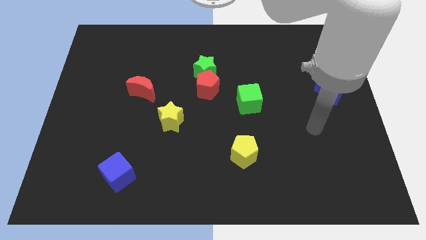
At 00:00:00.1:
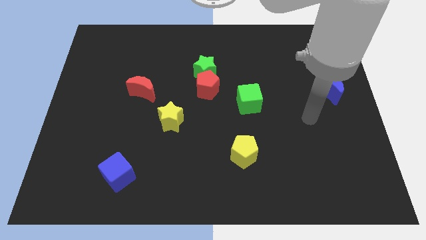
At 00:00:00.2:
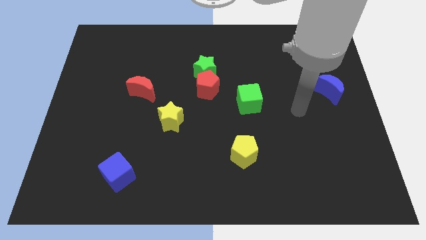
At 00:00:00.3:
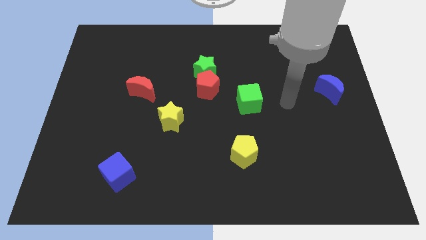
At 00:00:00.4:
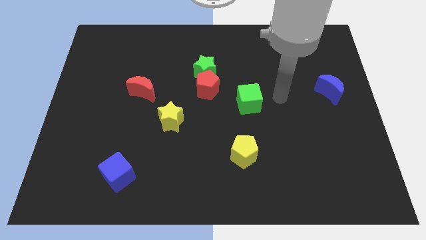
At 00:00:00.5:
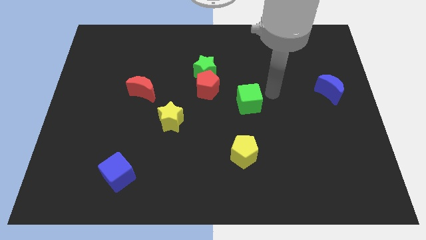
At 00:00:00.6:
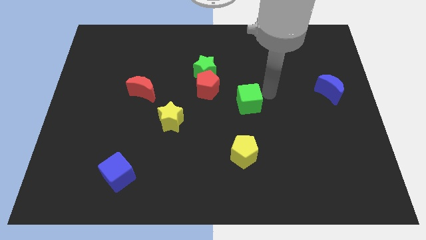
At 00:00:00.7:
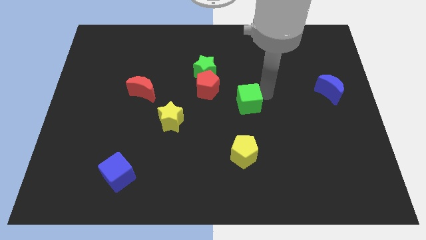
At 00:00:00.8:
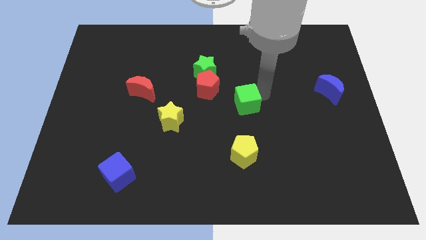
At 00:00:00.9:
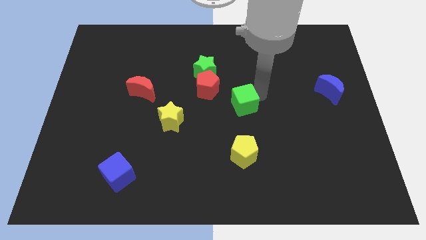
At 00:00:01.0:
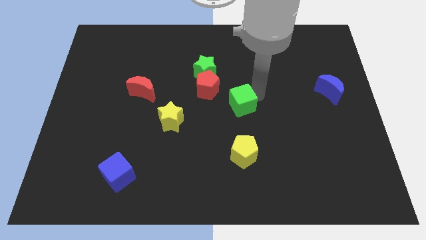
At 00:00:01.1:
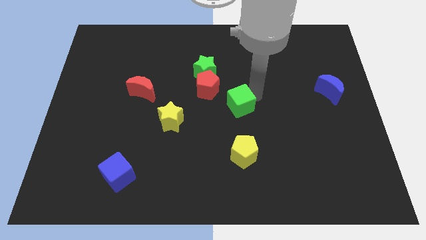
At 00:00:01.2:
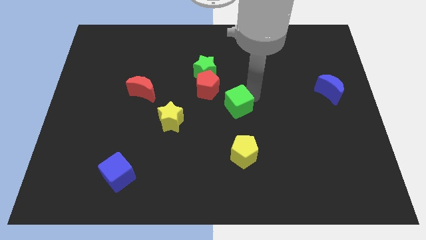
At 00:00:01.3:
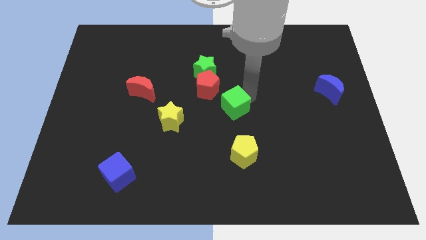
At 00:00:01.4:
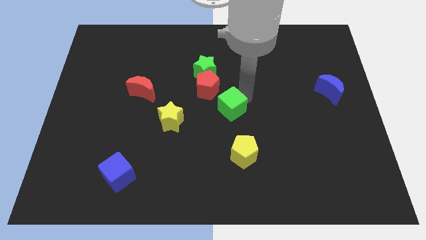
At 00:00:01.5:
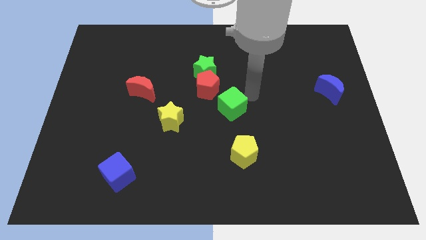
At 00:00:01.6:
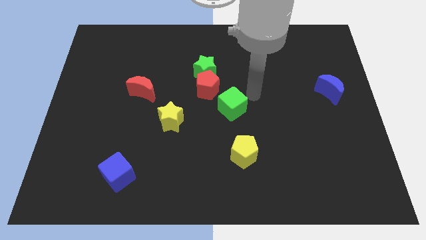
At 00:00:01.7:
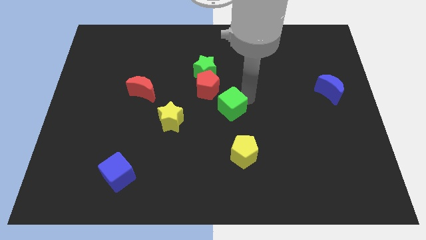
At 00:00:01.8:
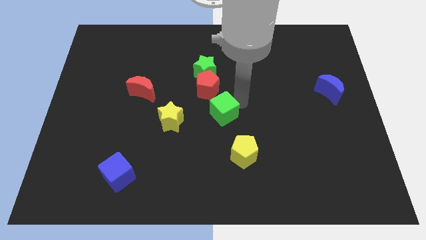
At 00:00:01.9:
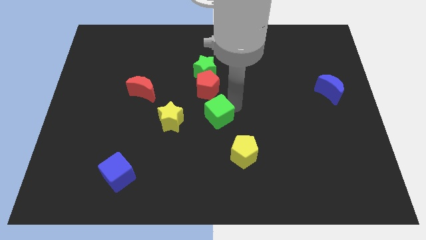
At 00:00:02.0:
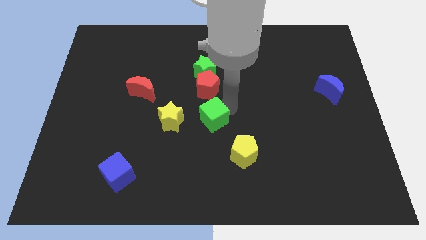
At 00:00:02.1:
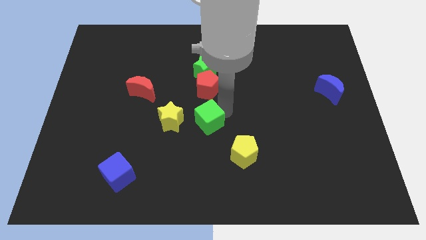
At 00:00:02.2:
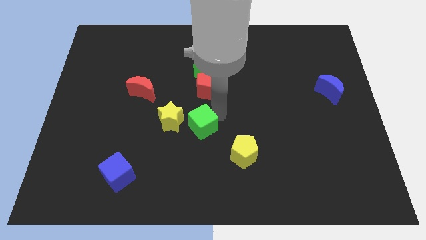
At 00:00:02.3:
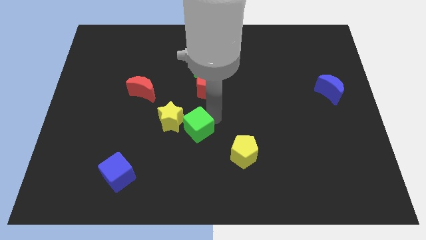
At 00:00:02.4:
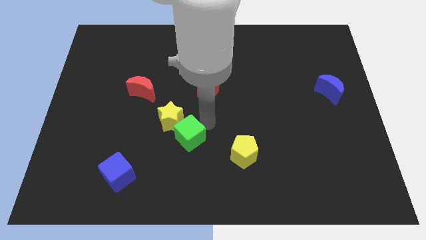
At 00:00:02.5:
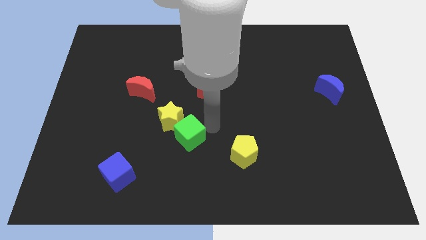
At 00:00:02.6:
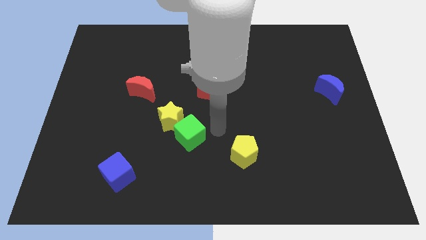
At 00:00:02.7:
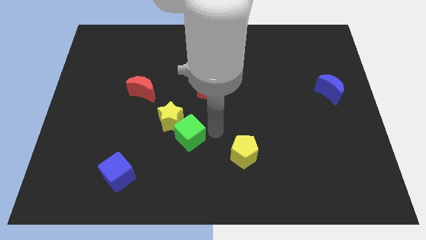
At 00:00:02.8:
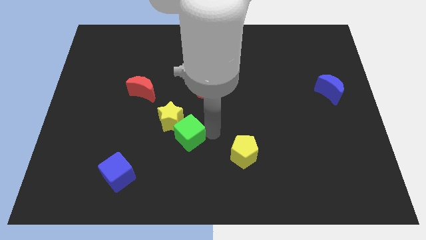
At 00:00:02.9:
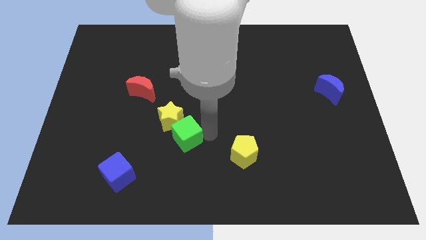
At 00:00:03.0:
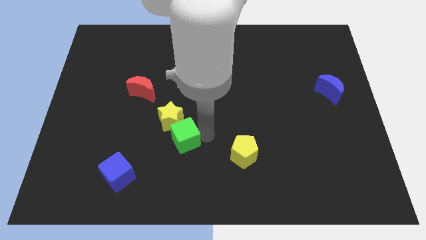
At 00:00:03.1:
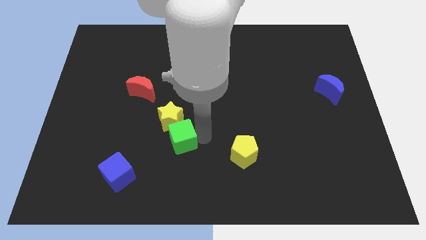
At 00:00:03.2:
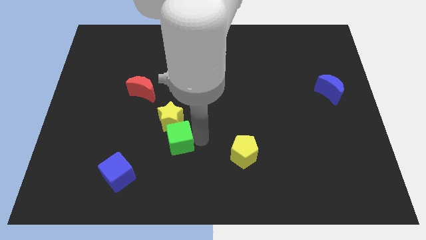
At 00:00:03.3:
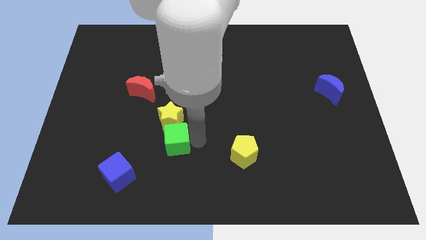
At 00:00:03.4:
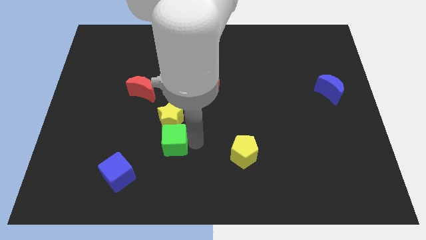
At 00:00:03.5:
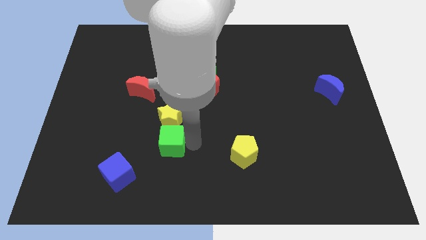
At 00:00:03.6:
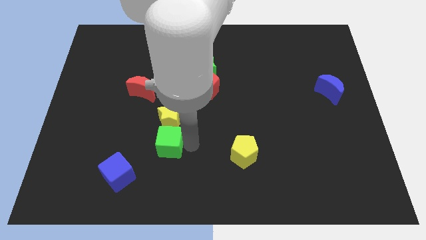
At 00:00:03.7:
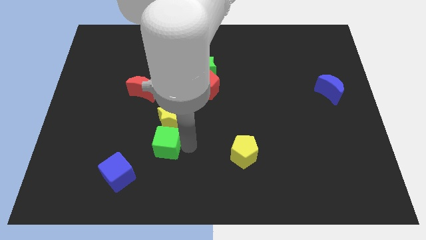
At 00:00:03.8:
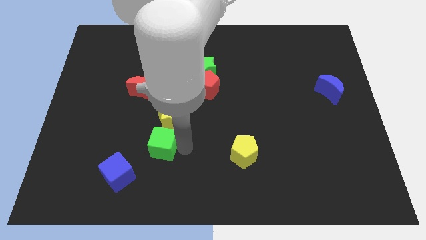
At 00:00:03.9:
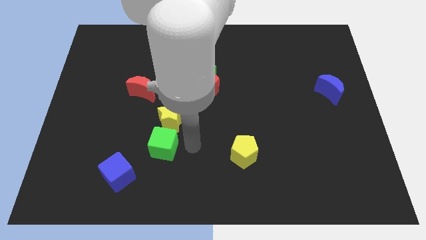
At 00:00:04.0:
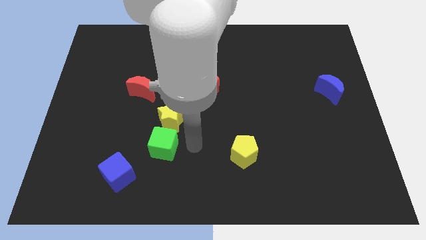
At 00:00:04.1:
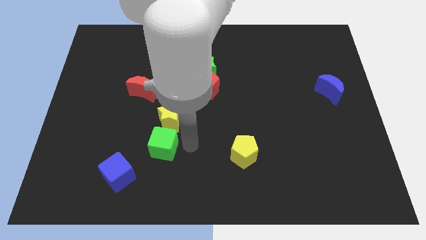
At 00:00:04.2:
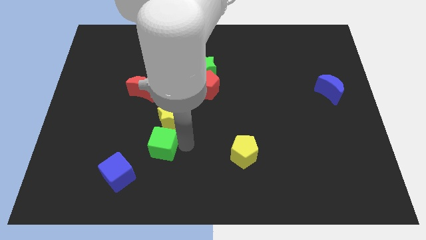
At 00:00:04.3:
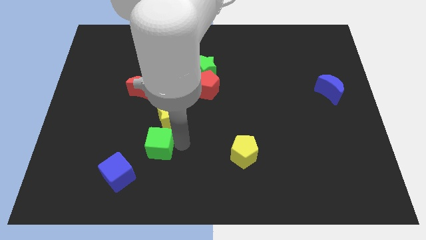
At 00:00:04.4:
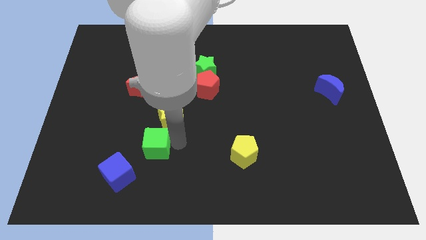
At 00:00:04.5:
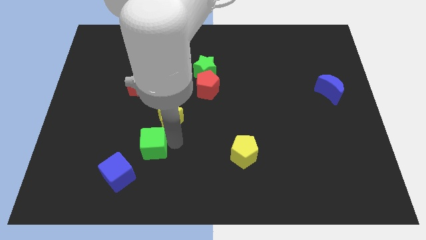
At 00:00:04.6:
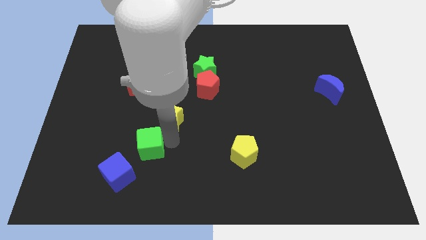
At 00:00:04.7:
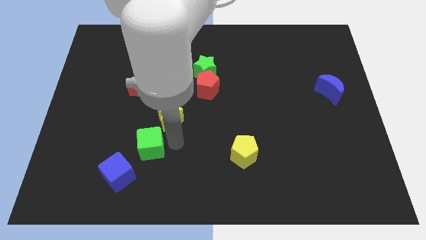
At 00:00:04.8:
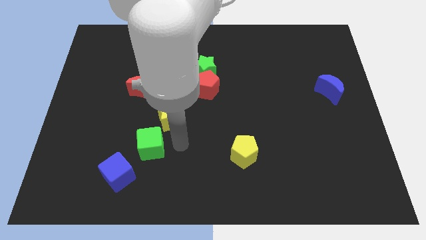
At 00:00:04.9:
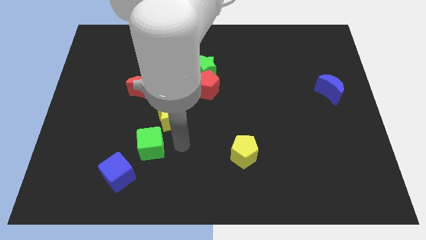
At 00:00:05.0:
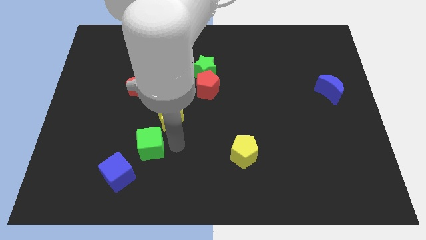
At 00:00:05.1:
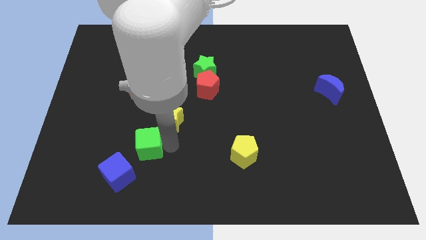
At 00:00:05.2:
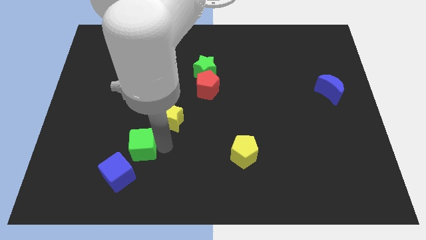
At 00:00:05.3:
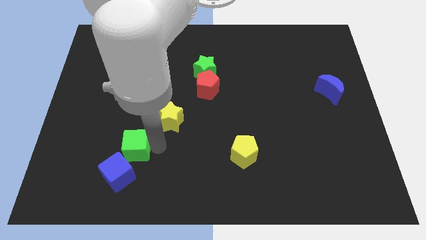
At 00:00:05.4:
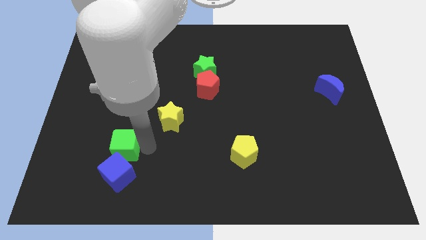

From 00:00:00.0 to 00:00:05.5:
move the green cube to the top left side of the blue cube

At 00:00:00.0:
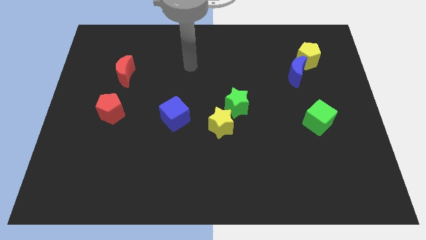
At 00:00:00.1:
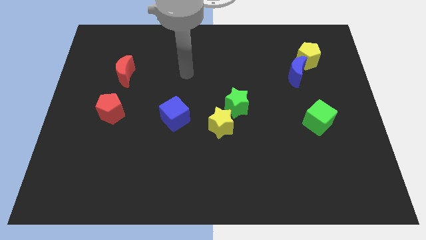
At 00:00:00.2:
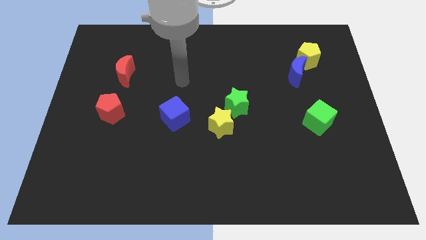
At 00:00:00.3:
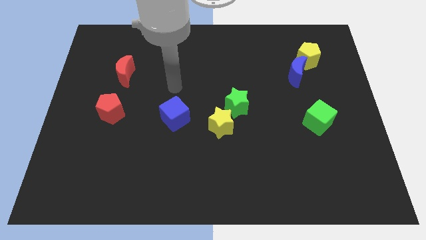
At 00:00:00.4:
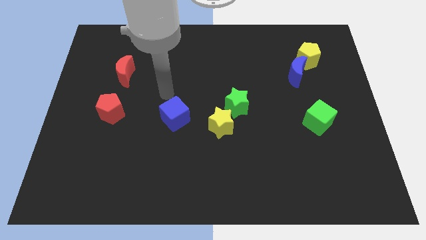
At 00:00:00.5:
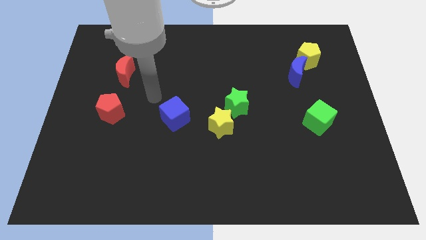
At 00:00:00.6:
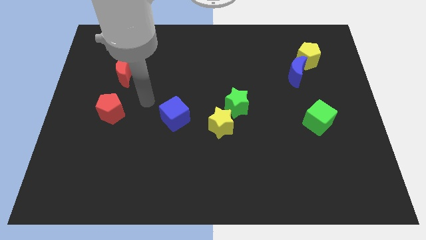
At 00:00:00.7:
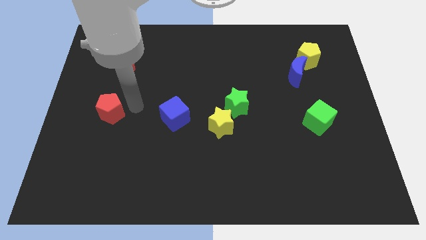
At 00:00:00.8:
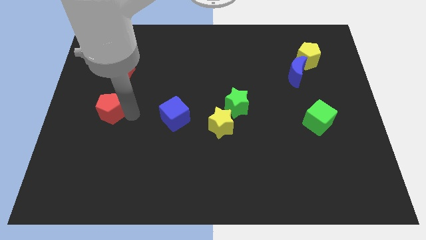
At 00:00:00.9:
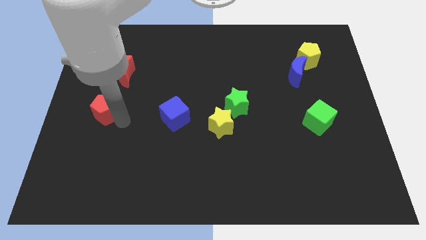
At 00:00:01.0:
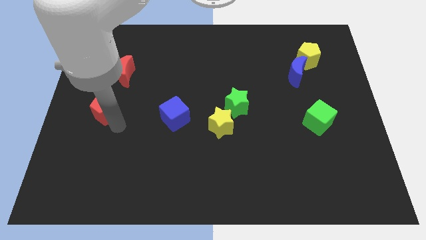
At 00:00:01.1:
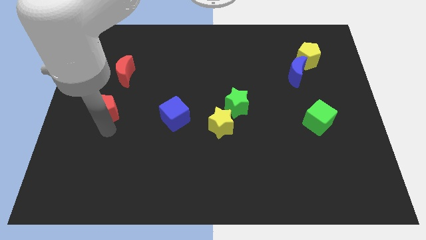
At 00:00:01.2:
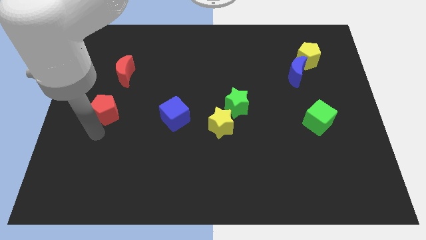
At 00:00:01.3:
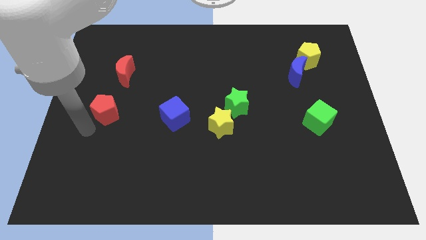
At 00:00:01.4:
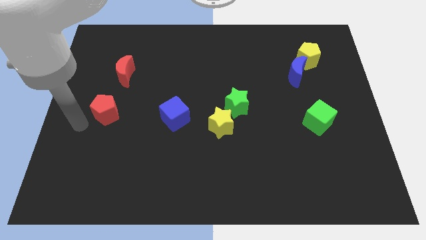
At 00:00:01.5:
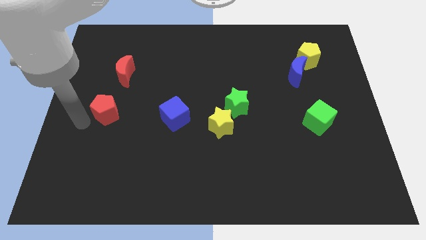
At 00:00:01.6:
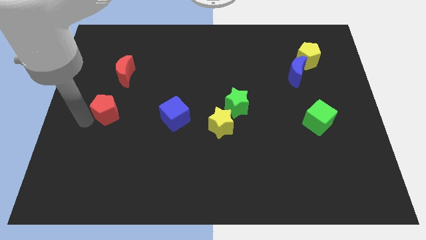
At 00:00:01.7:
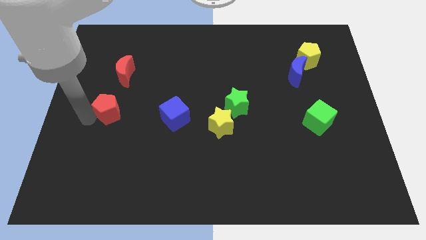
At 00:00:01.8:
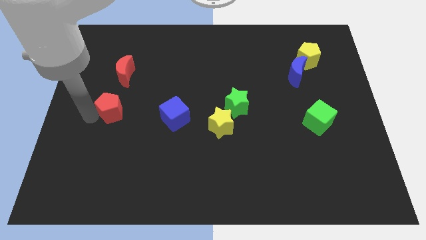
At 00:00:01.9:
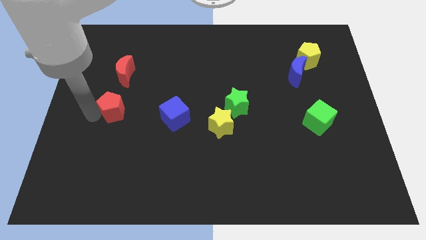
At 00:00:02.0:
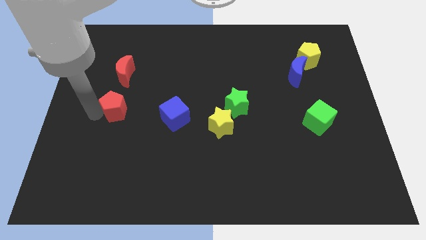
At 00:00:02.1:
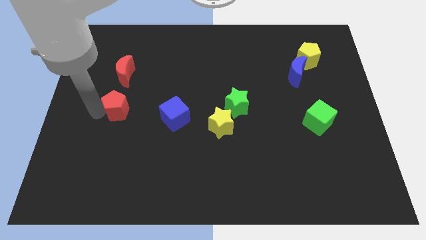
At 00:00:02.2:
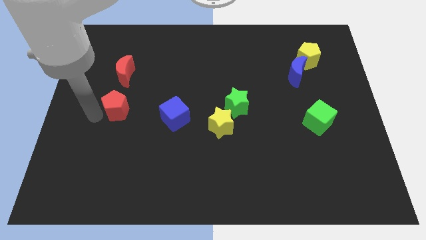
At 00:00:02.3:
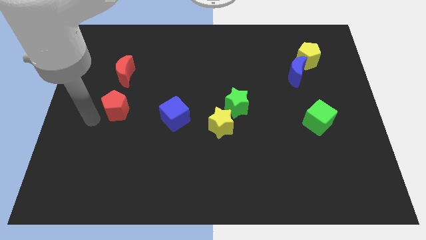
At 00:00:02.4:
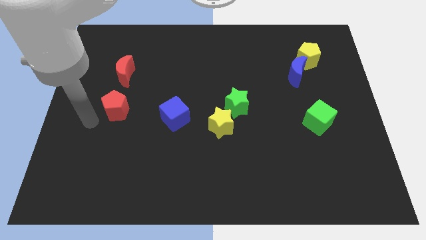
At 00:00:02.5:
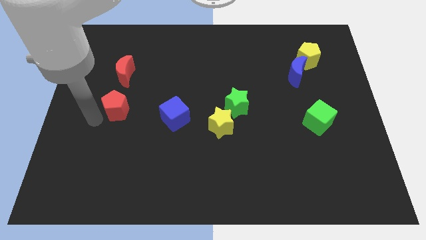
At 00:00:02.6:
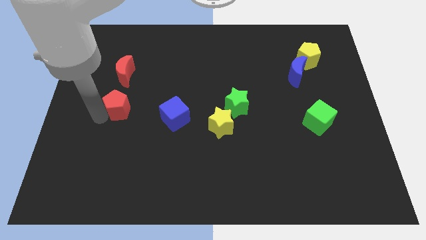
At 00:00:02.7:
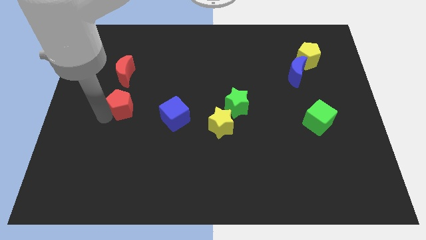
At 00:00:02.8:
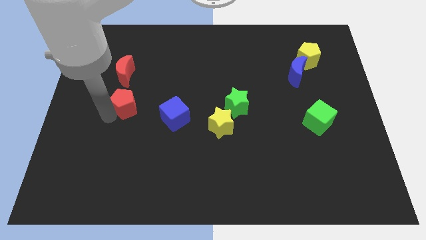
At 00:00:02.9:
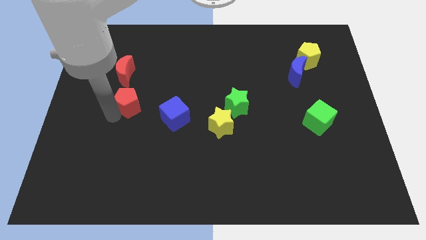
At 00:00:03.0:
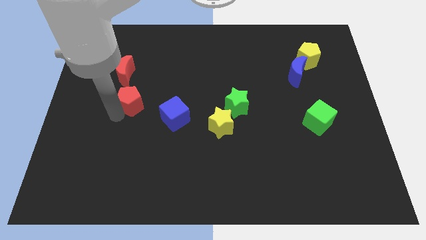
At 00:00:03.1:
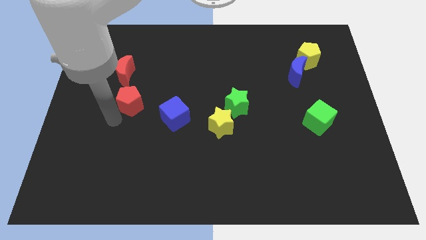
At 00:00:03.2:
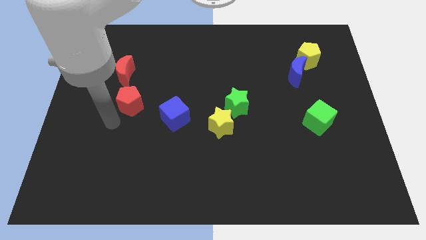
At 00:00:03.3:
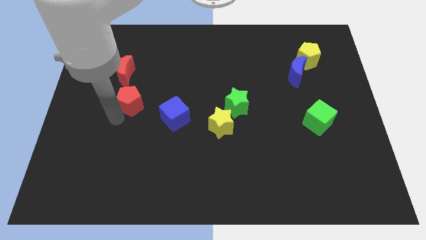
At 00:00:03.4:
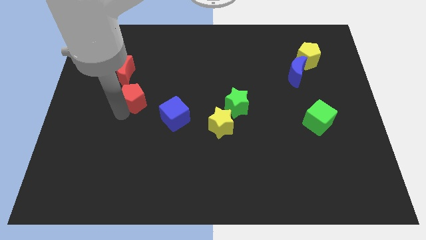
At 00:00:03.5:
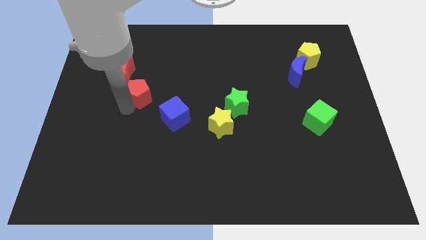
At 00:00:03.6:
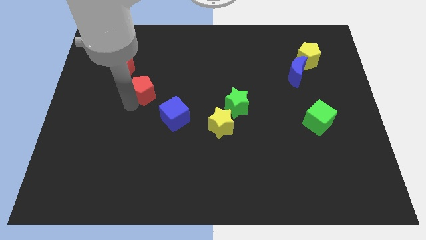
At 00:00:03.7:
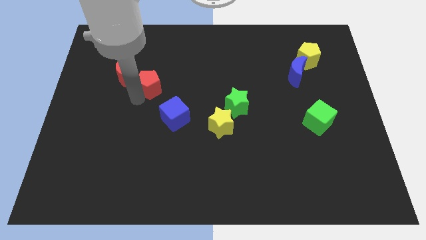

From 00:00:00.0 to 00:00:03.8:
move the red pentagon to the right of the red moon
